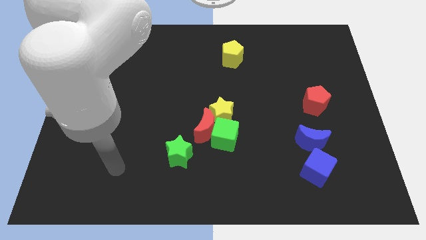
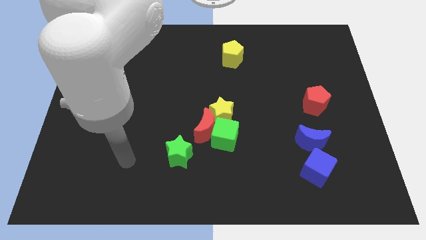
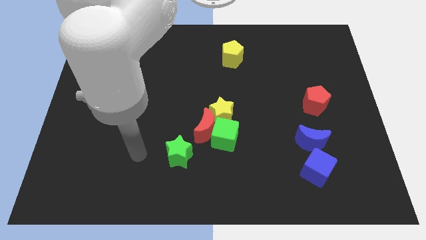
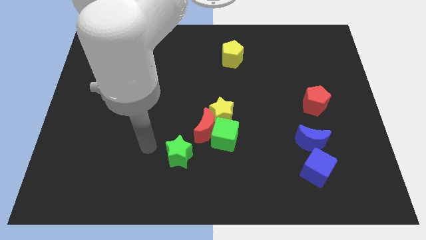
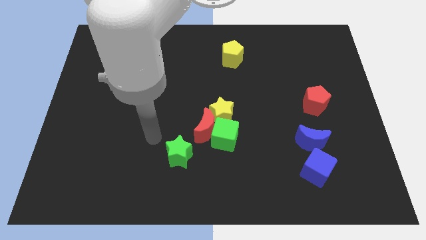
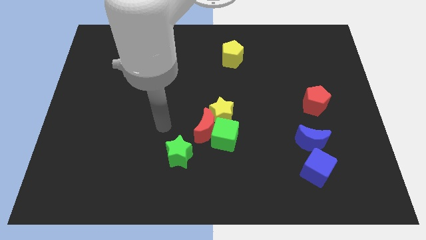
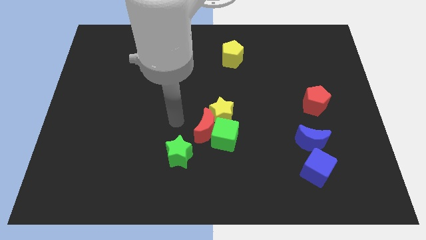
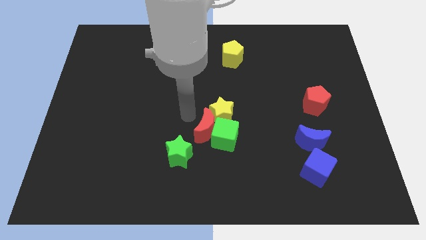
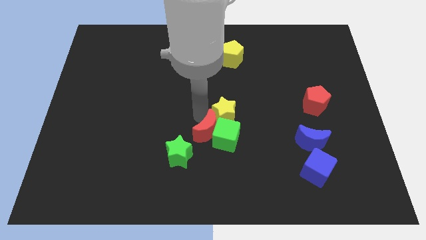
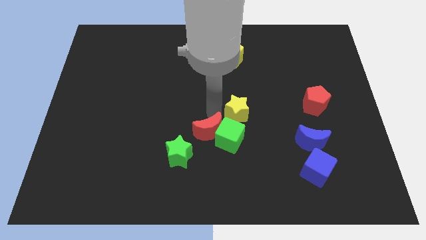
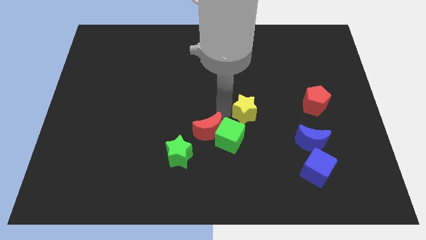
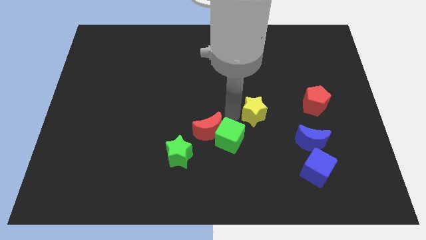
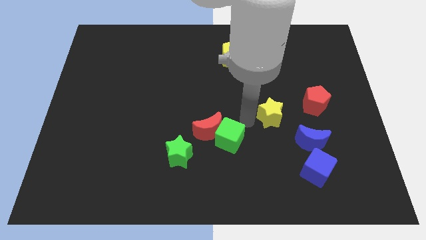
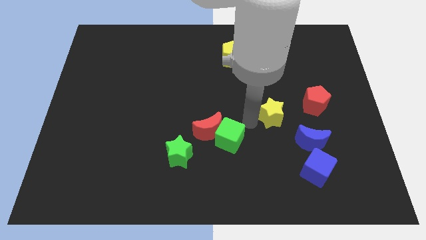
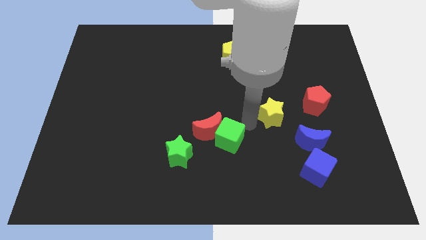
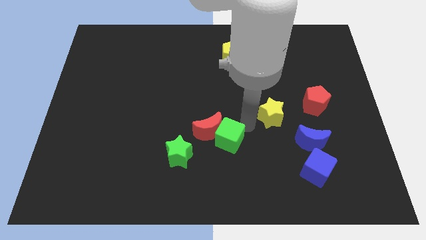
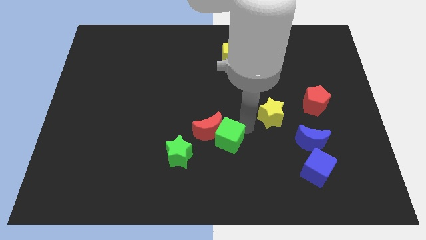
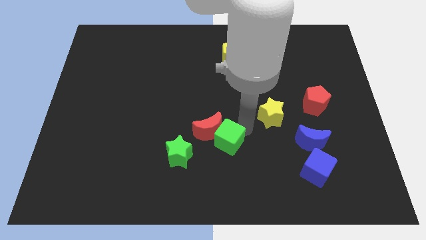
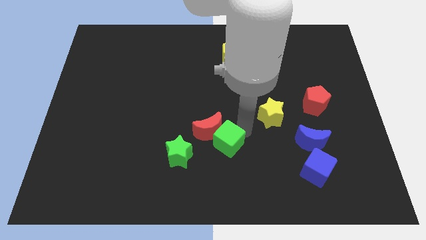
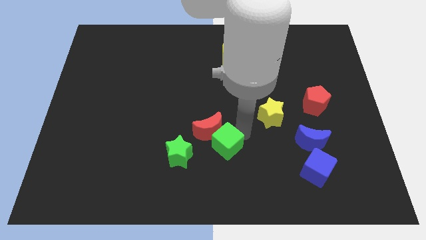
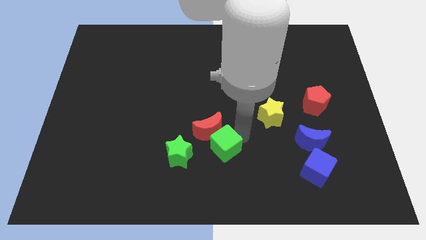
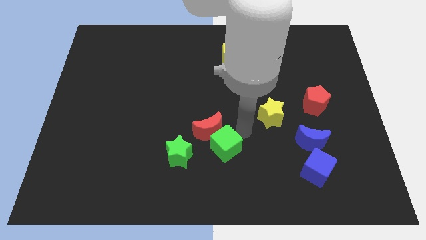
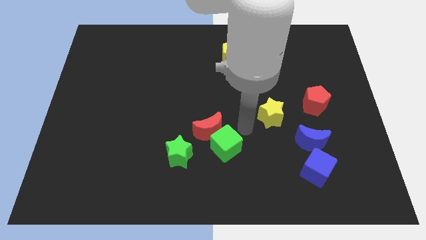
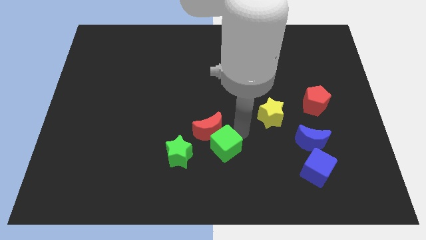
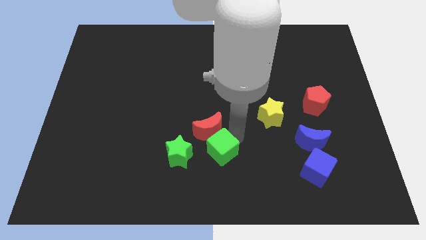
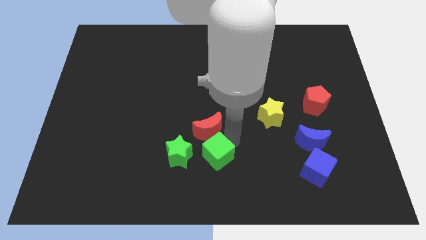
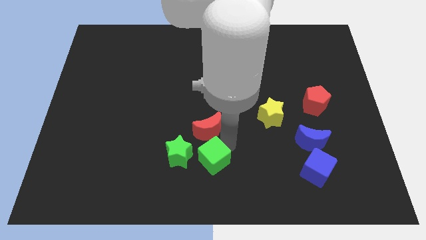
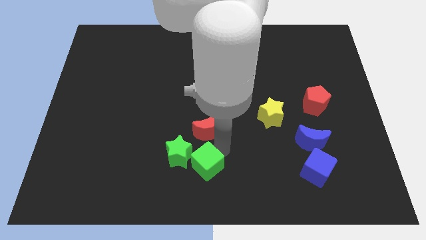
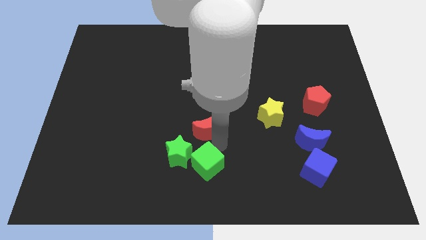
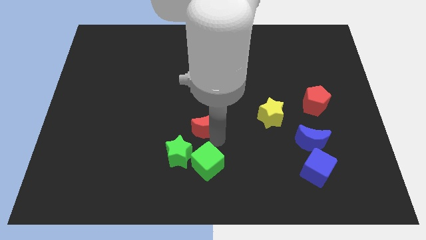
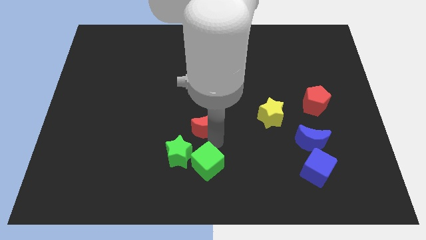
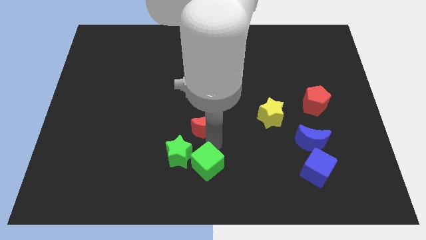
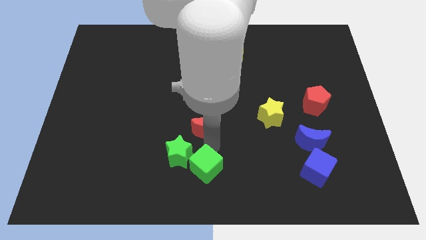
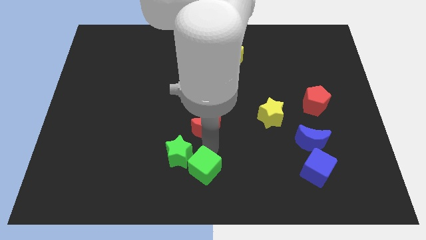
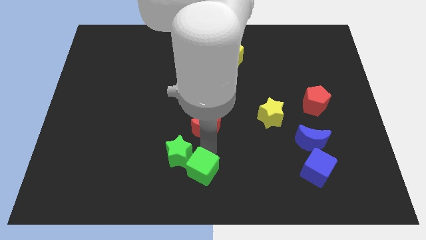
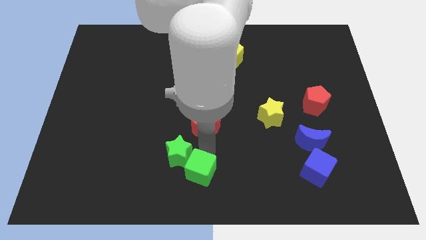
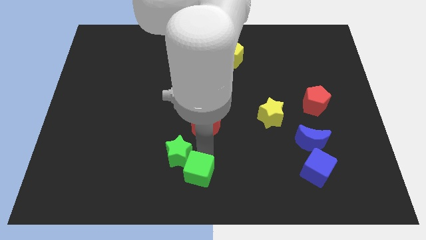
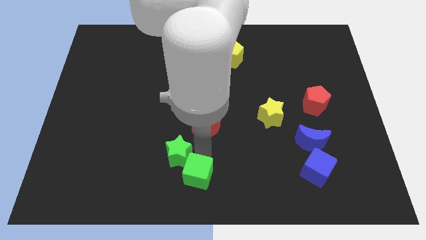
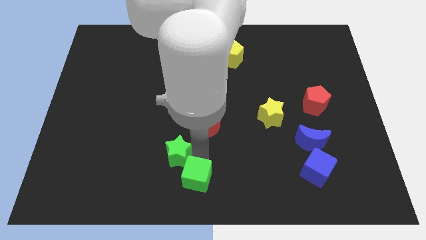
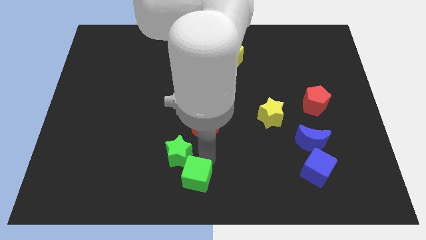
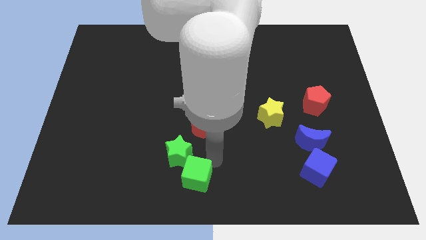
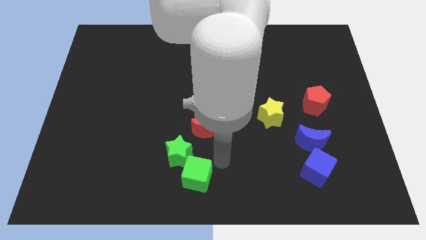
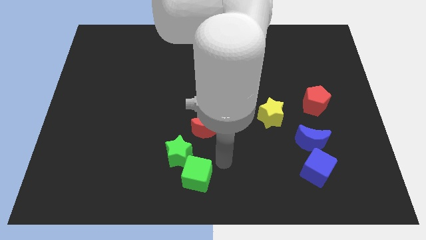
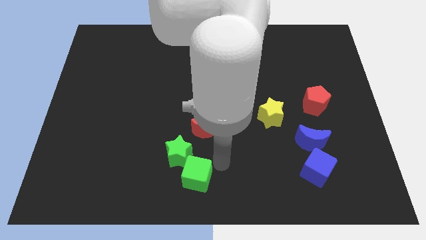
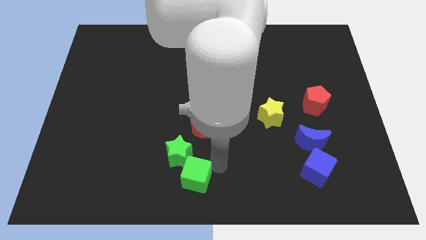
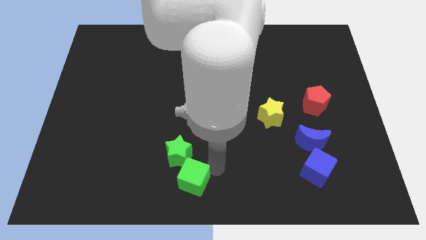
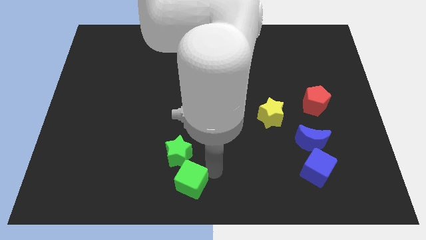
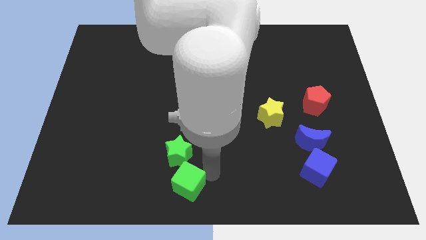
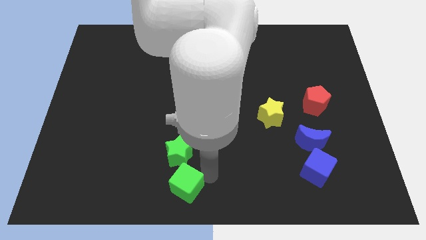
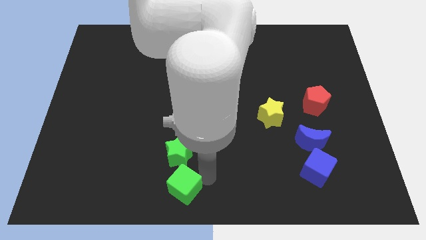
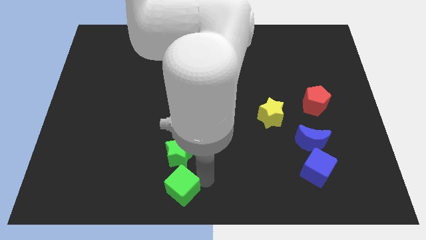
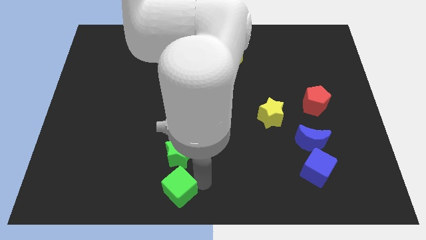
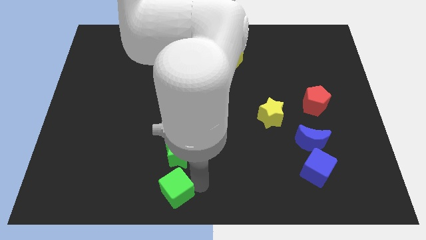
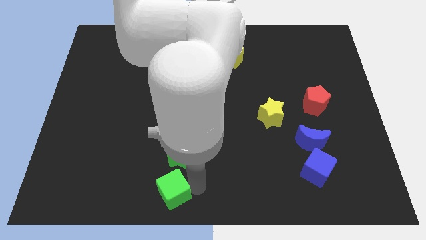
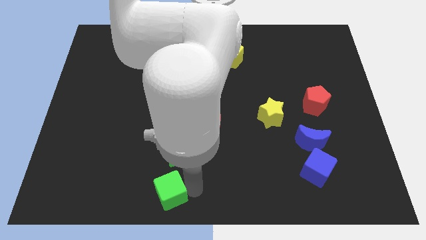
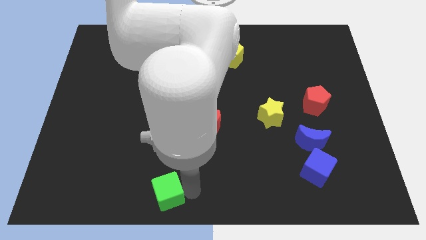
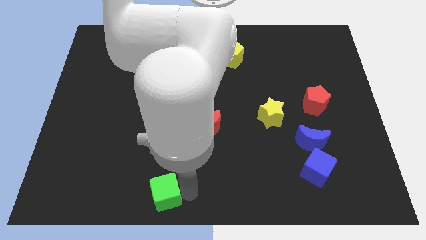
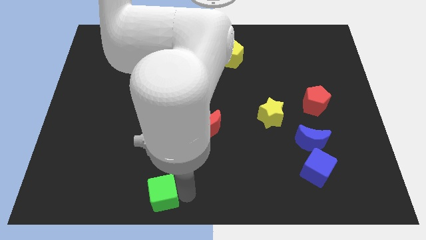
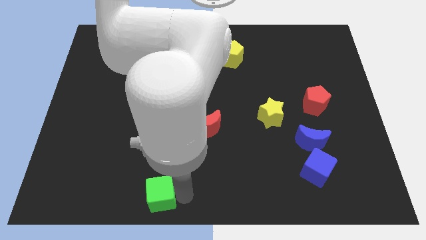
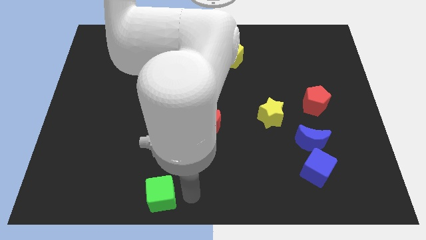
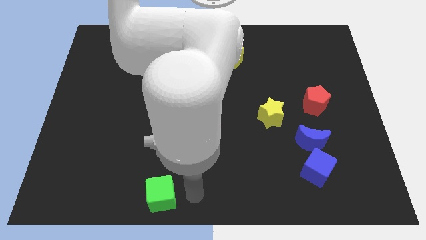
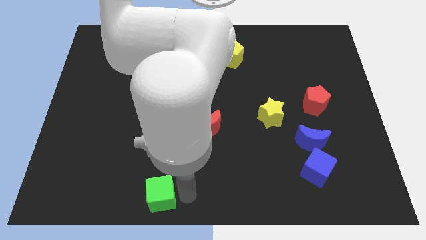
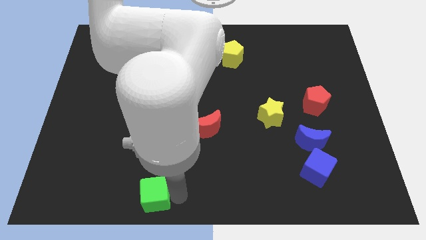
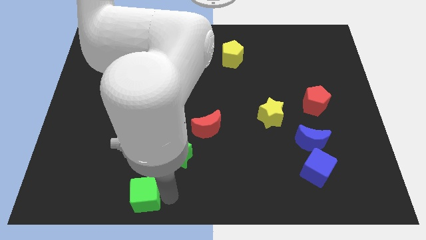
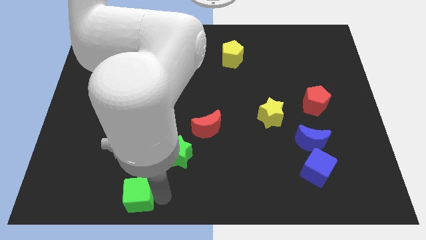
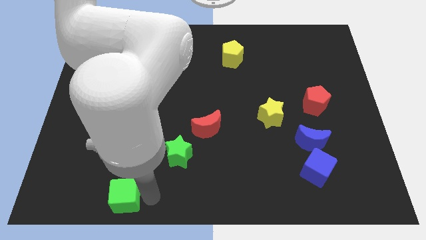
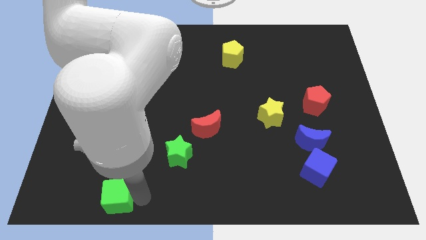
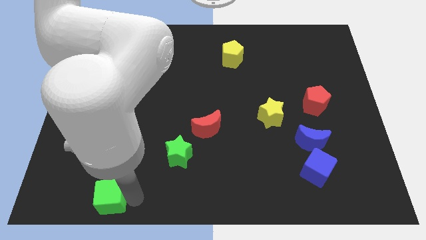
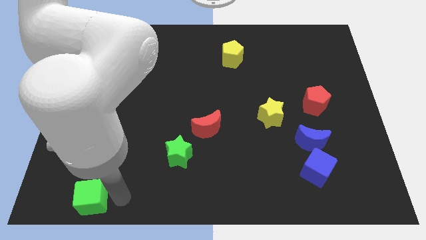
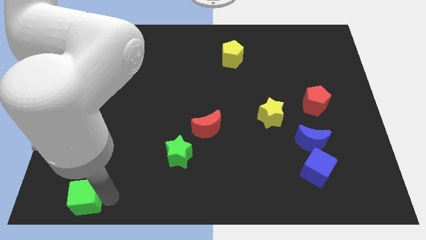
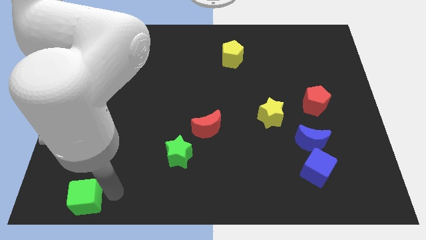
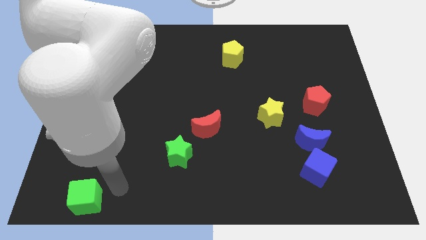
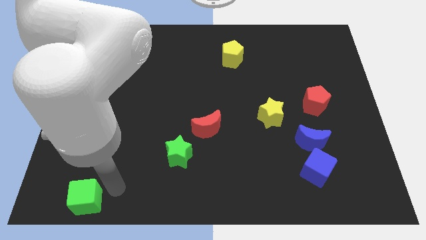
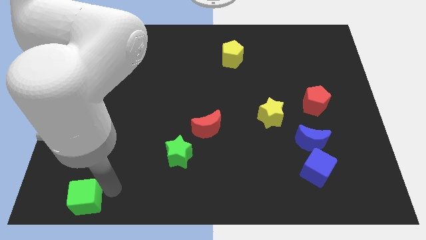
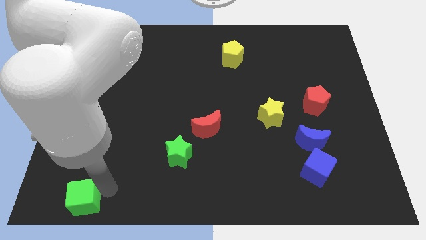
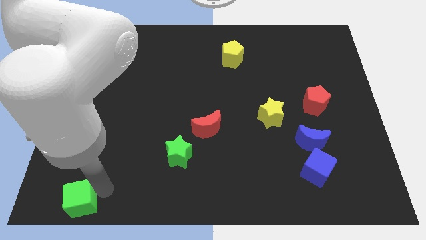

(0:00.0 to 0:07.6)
slide the green cube to the bottom left corner
